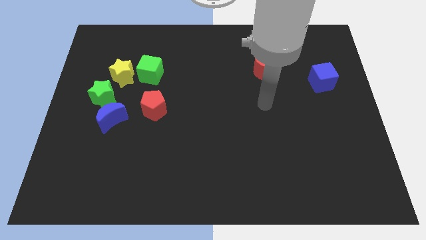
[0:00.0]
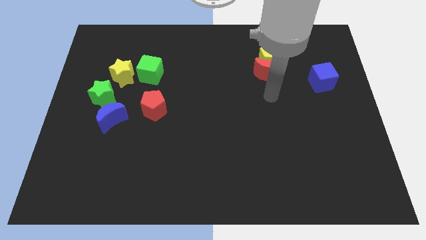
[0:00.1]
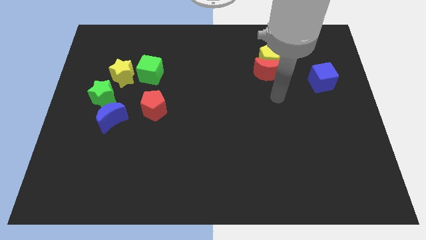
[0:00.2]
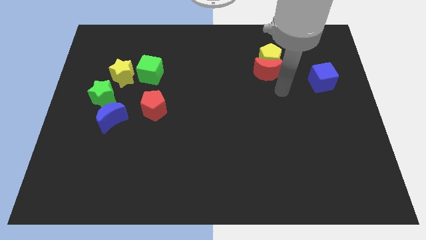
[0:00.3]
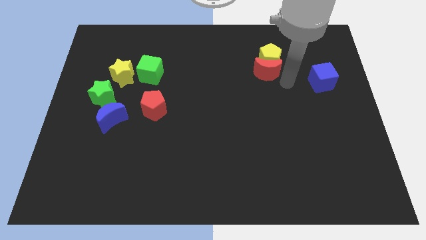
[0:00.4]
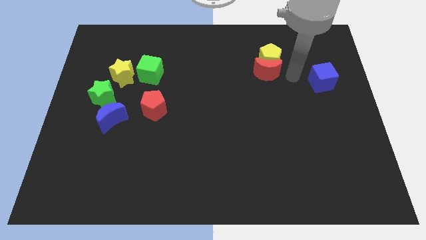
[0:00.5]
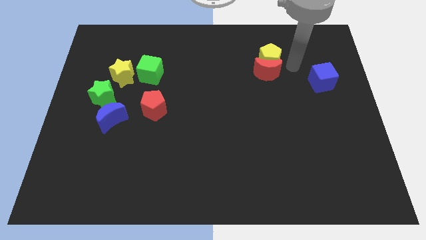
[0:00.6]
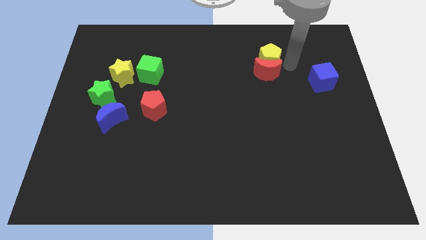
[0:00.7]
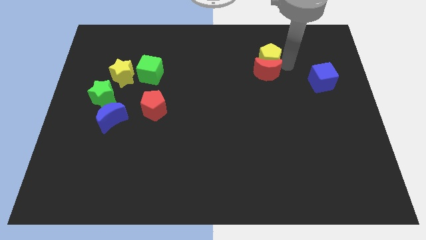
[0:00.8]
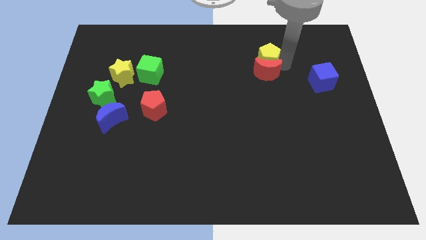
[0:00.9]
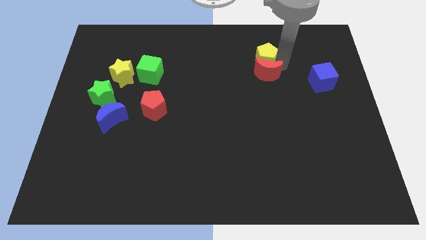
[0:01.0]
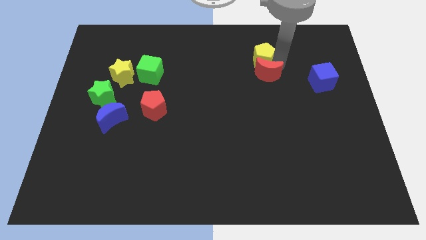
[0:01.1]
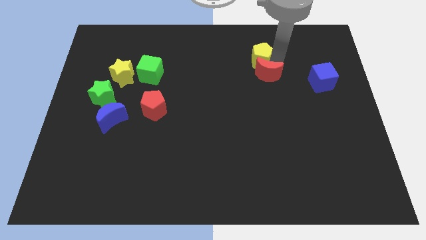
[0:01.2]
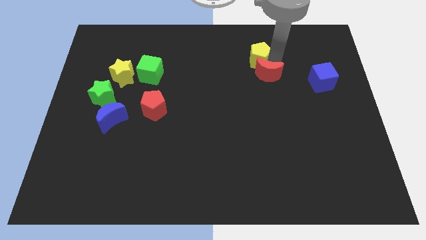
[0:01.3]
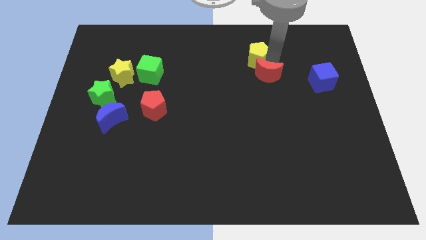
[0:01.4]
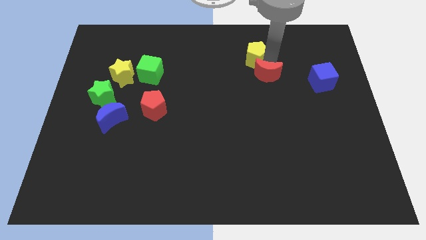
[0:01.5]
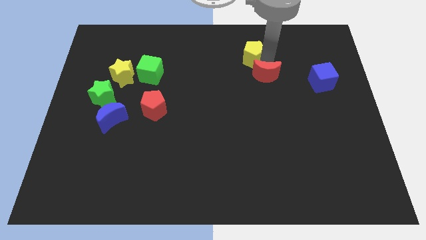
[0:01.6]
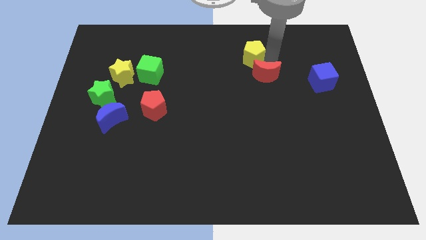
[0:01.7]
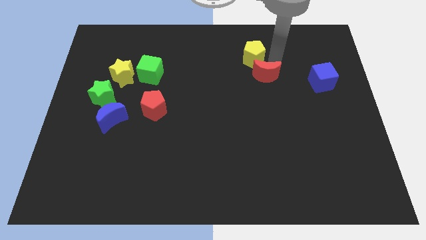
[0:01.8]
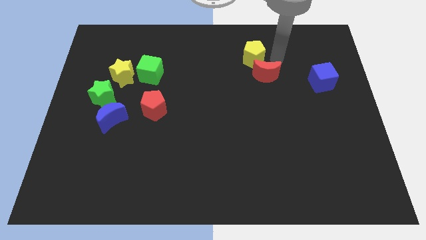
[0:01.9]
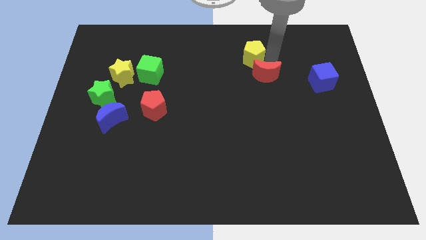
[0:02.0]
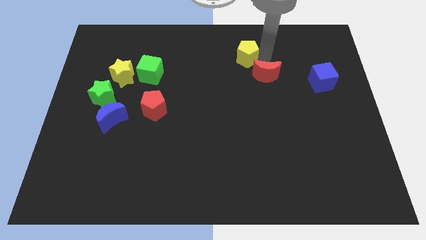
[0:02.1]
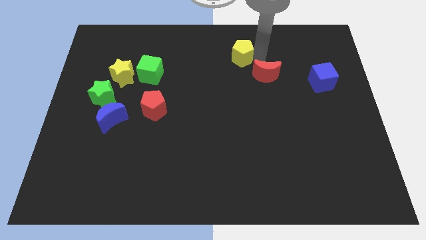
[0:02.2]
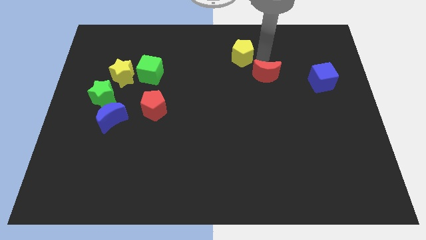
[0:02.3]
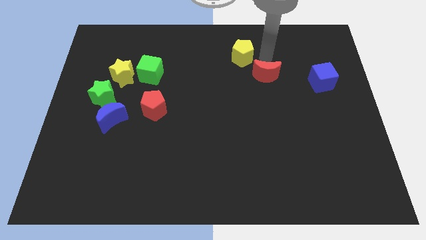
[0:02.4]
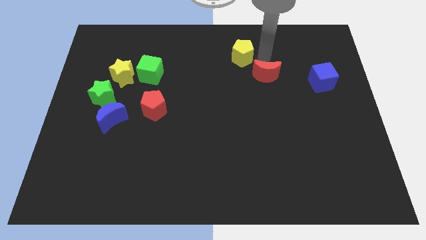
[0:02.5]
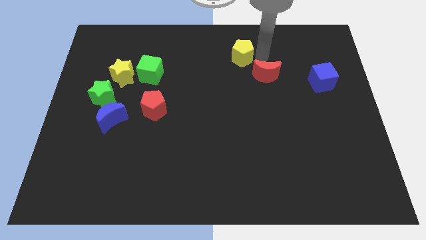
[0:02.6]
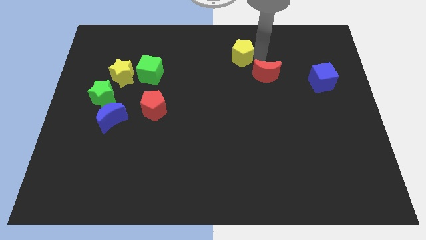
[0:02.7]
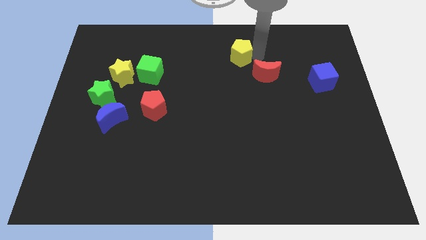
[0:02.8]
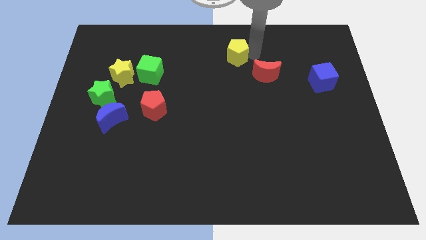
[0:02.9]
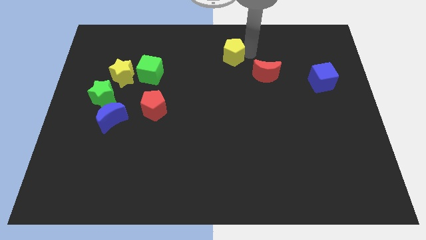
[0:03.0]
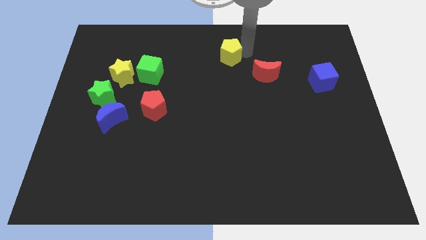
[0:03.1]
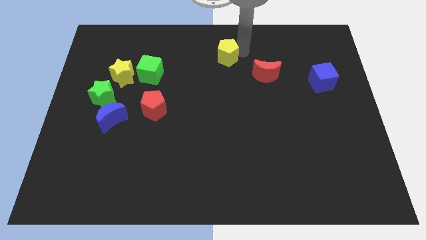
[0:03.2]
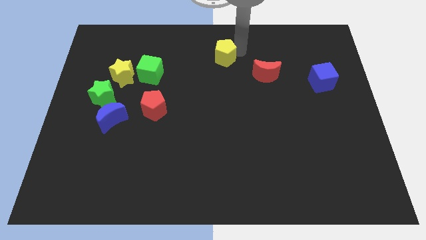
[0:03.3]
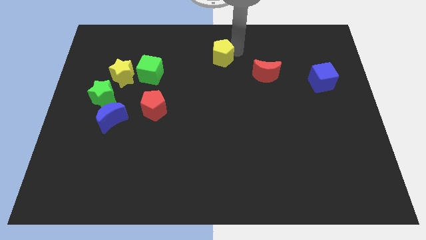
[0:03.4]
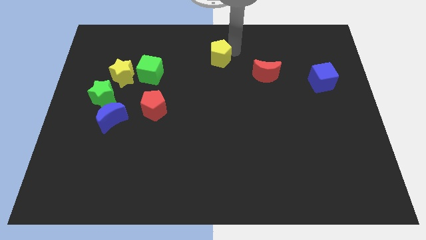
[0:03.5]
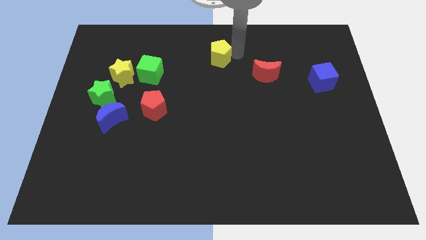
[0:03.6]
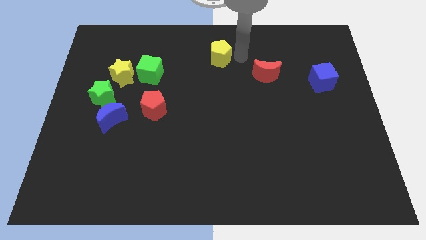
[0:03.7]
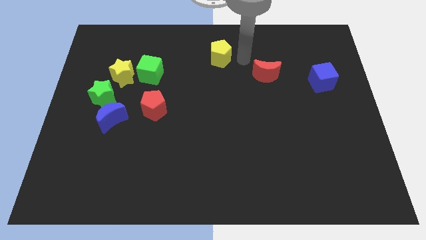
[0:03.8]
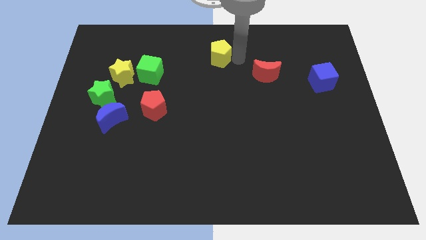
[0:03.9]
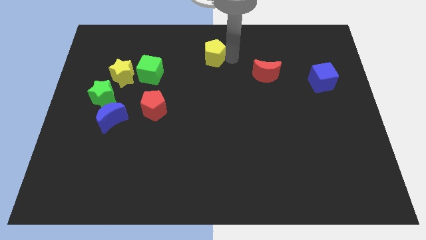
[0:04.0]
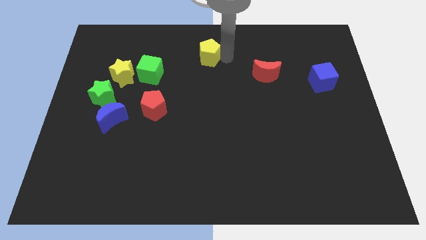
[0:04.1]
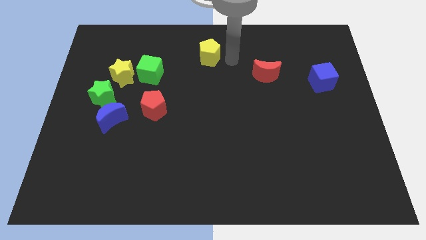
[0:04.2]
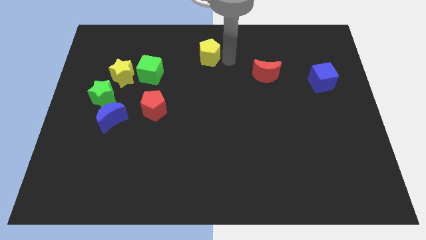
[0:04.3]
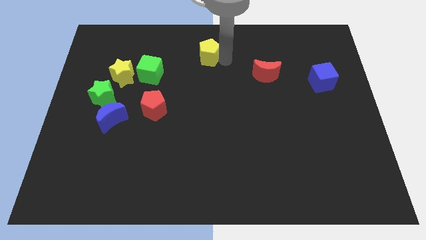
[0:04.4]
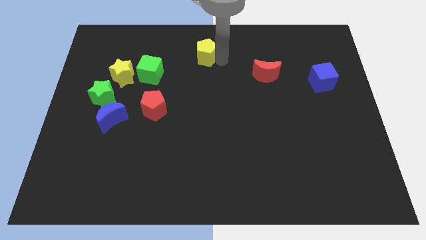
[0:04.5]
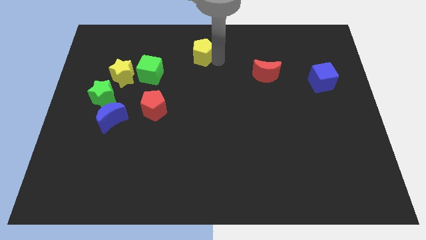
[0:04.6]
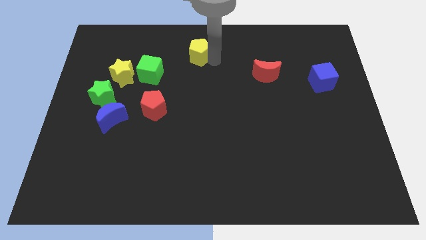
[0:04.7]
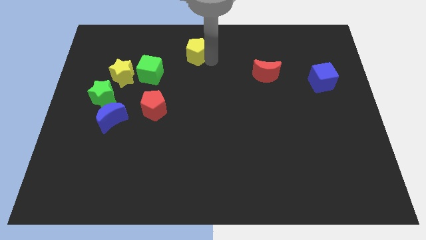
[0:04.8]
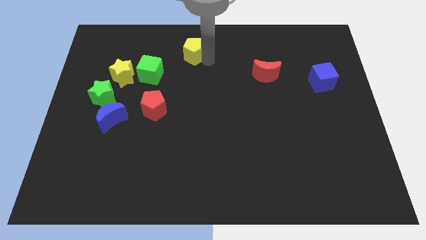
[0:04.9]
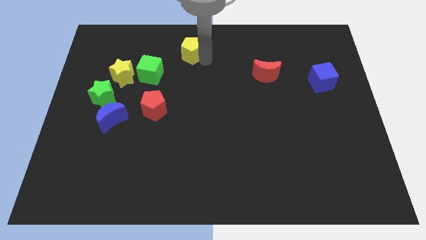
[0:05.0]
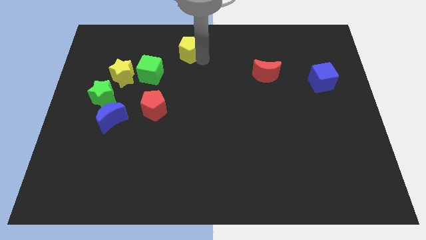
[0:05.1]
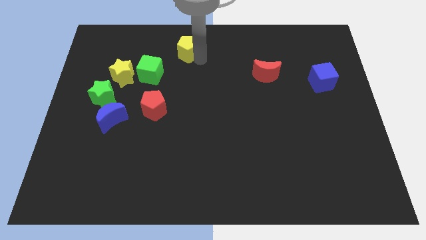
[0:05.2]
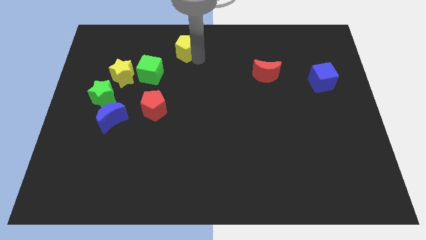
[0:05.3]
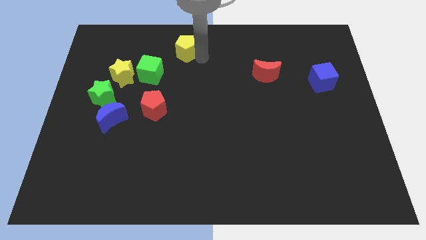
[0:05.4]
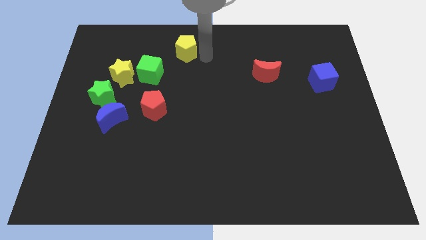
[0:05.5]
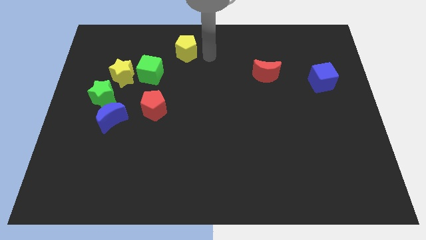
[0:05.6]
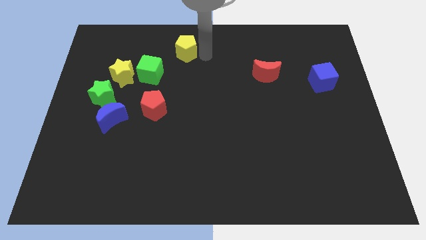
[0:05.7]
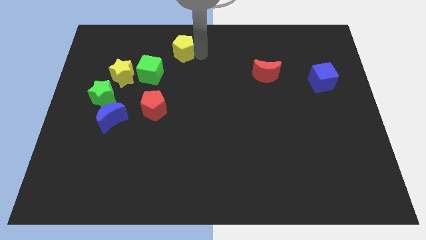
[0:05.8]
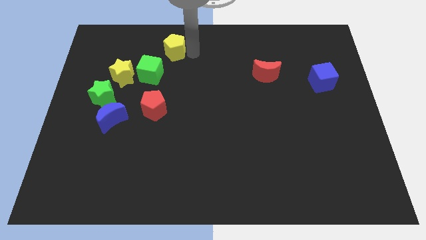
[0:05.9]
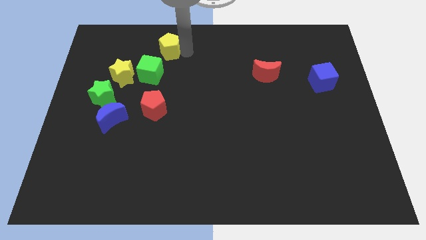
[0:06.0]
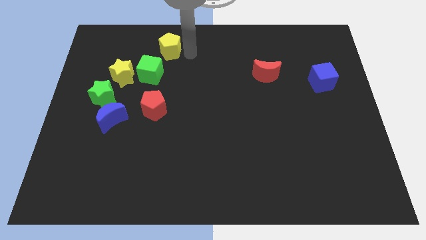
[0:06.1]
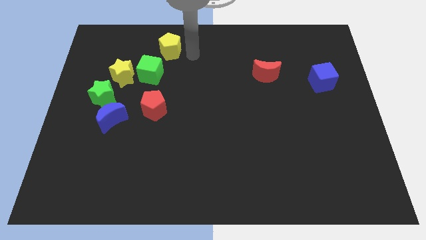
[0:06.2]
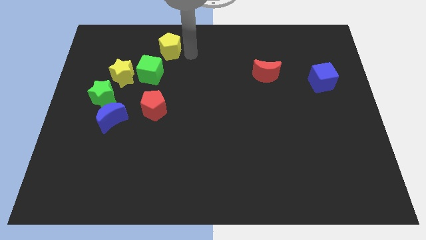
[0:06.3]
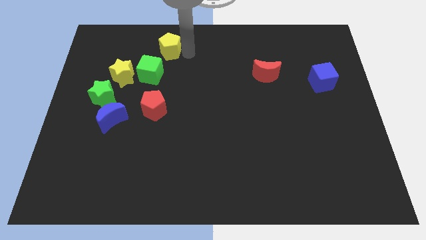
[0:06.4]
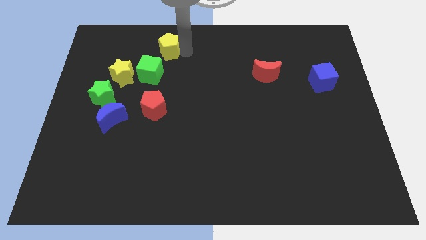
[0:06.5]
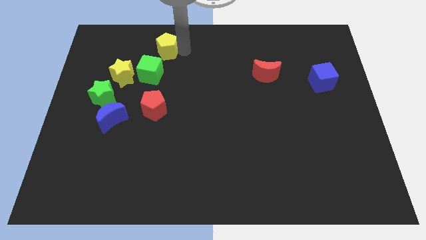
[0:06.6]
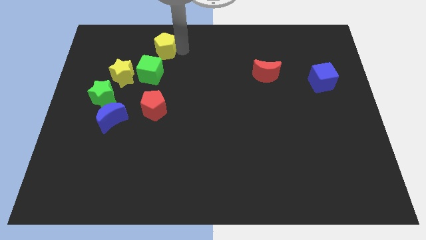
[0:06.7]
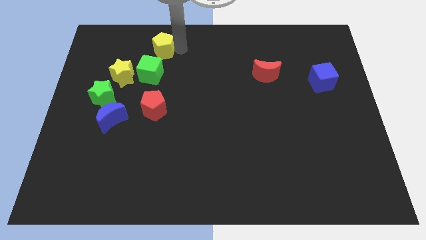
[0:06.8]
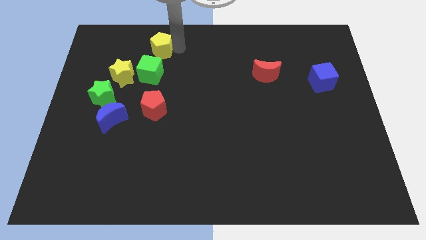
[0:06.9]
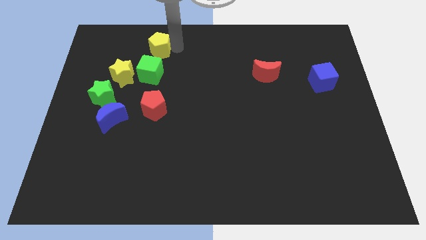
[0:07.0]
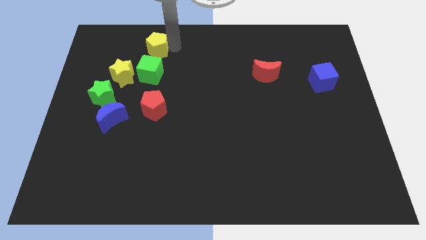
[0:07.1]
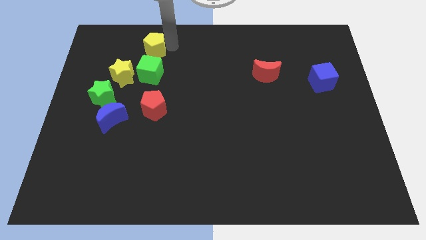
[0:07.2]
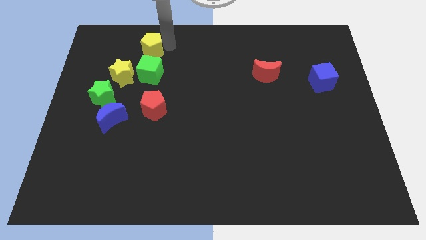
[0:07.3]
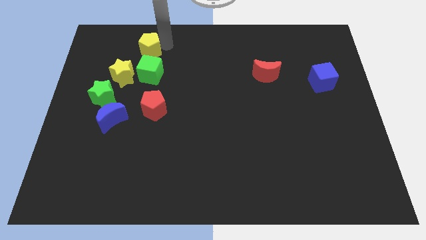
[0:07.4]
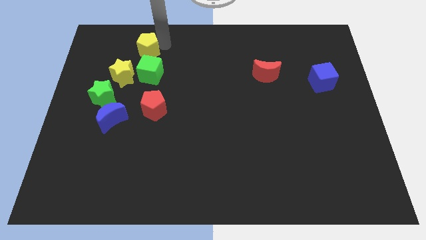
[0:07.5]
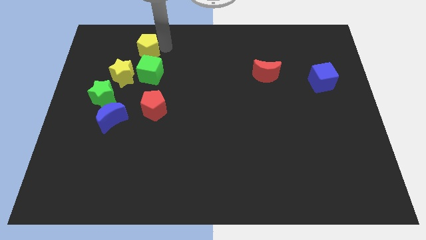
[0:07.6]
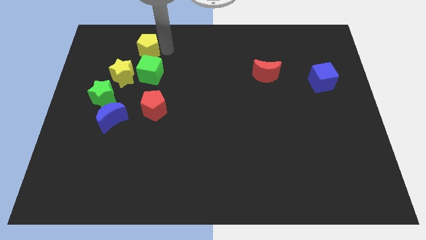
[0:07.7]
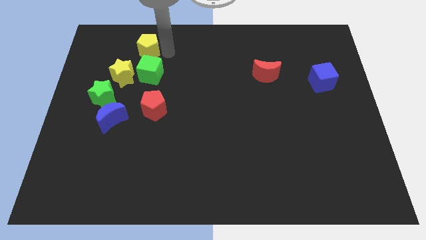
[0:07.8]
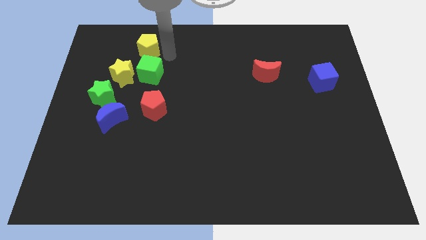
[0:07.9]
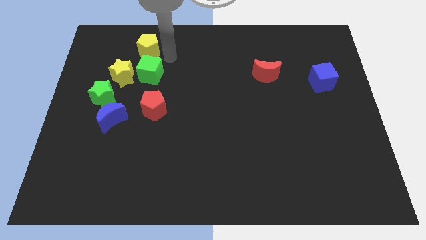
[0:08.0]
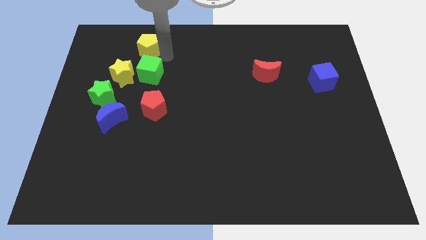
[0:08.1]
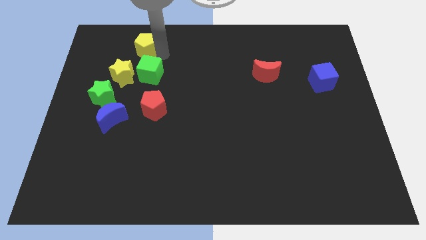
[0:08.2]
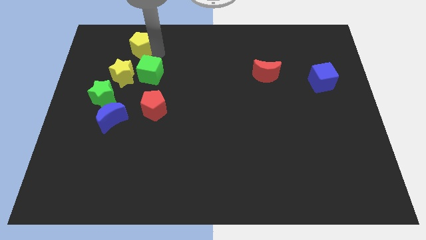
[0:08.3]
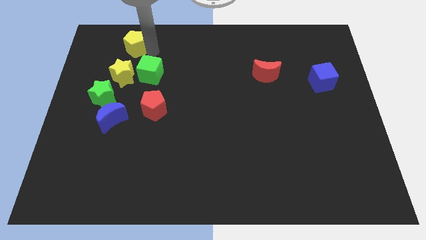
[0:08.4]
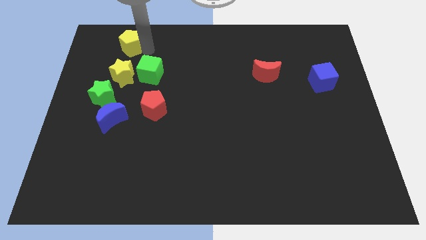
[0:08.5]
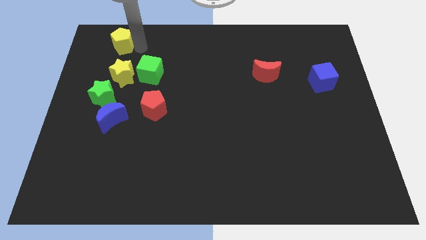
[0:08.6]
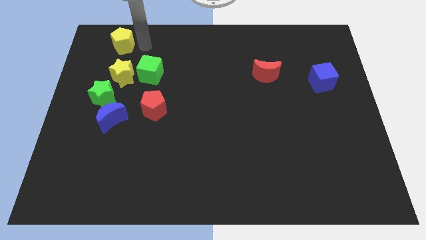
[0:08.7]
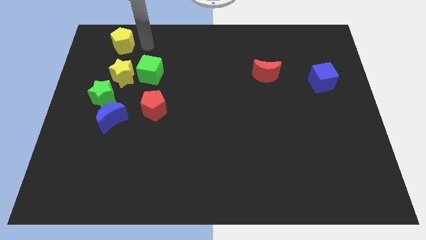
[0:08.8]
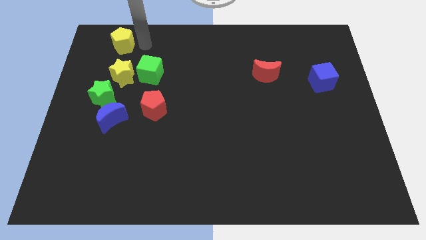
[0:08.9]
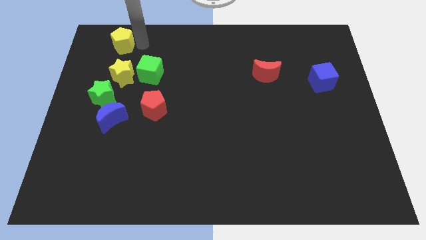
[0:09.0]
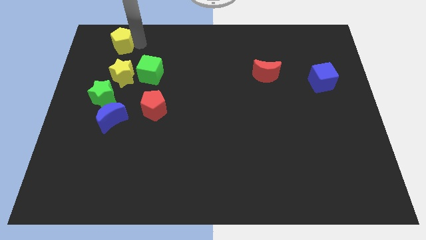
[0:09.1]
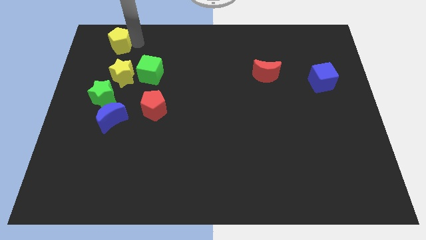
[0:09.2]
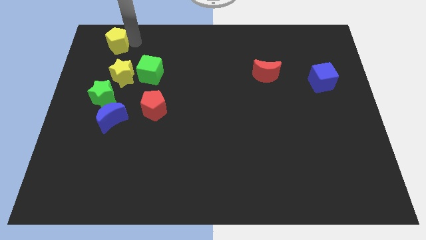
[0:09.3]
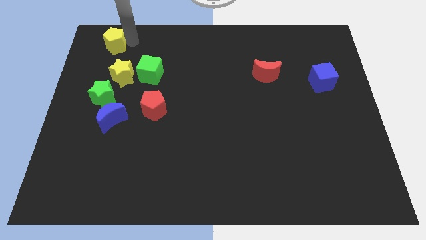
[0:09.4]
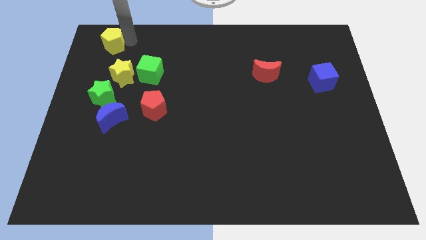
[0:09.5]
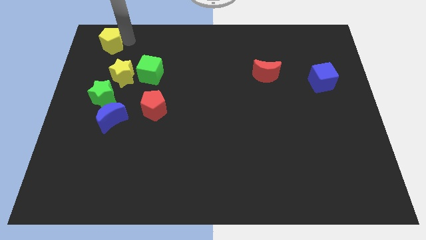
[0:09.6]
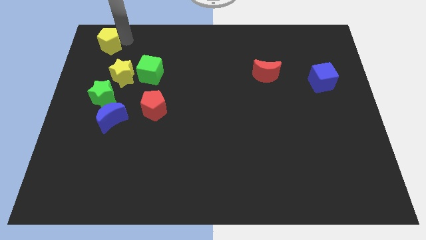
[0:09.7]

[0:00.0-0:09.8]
move the yellow pentagon to the upper left corner
